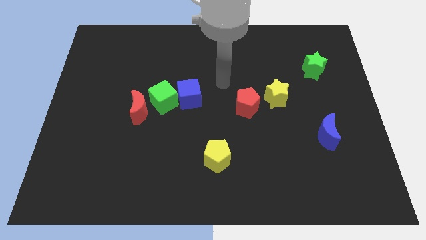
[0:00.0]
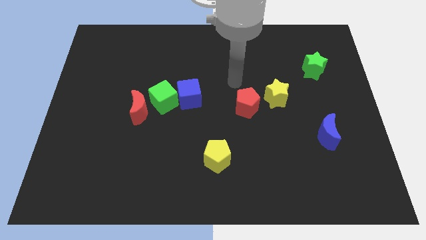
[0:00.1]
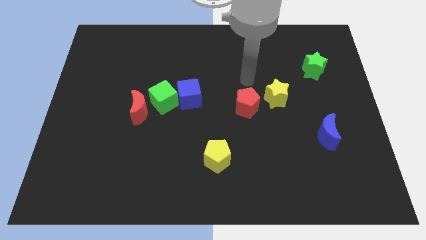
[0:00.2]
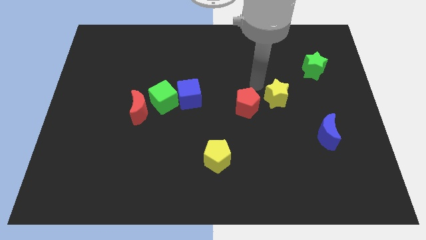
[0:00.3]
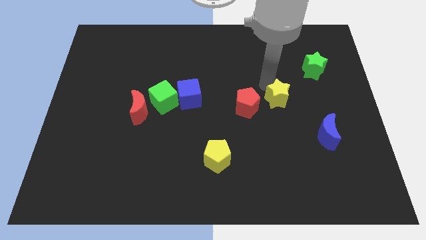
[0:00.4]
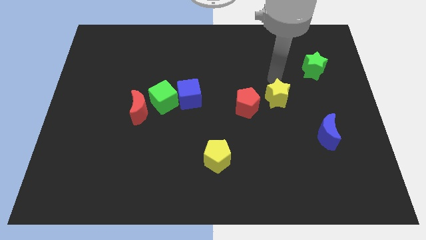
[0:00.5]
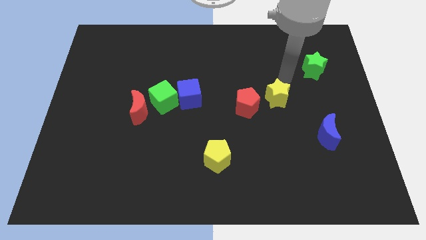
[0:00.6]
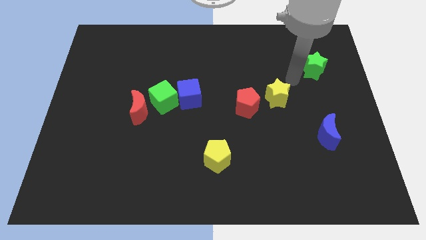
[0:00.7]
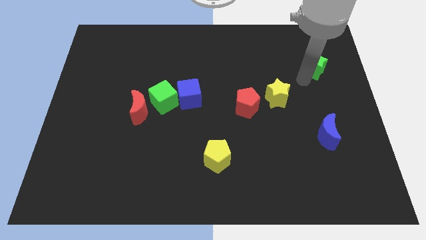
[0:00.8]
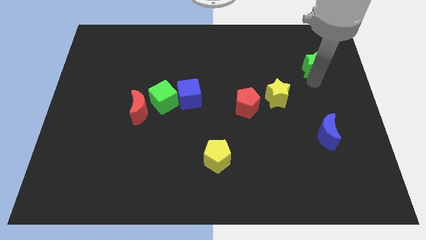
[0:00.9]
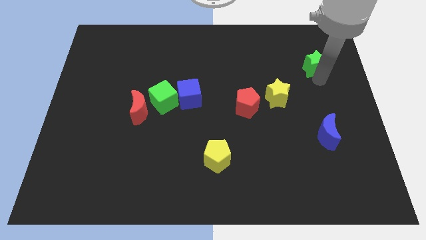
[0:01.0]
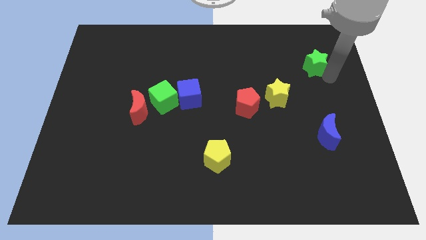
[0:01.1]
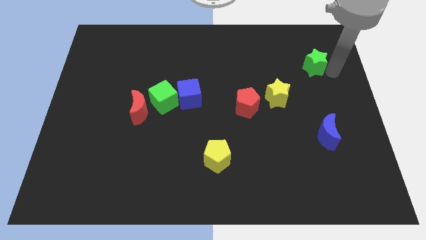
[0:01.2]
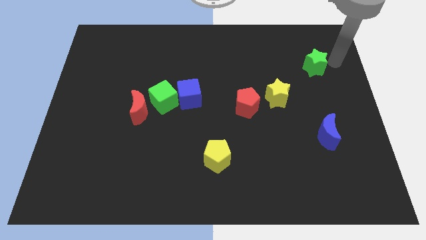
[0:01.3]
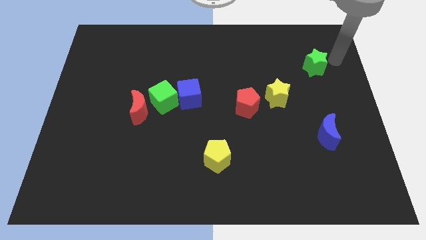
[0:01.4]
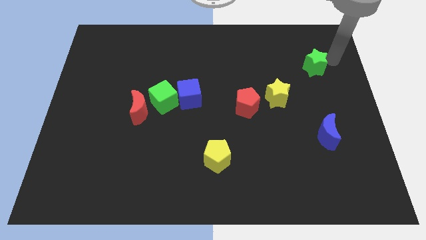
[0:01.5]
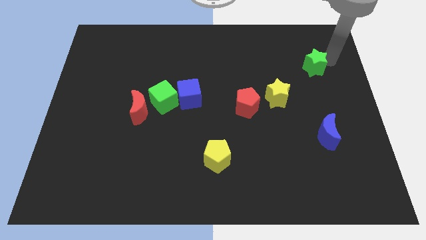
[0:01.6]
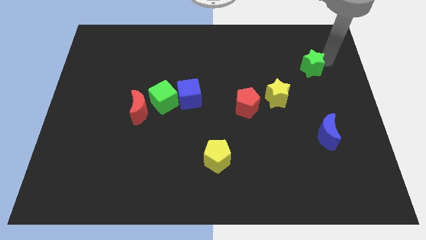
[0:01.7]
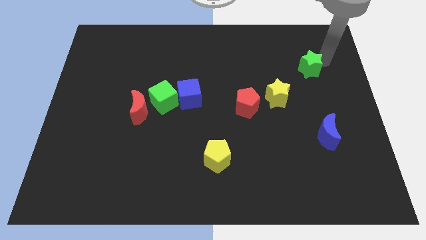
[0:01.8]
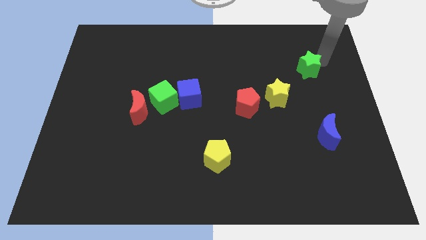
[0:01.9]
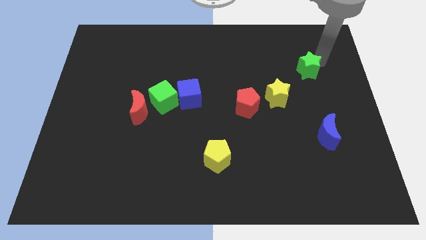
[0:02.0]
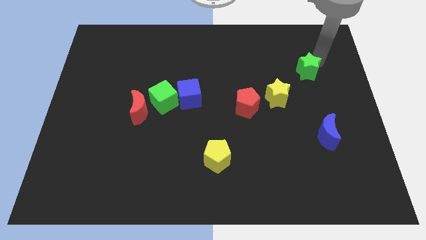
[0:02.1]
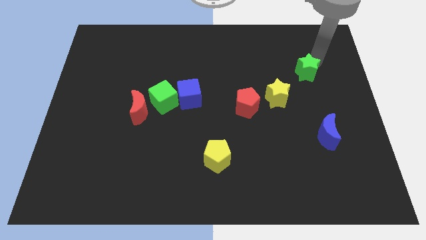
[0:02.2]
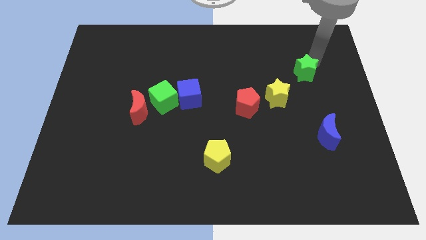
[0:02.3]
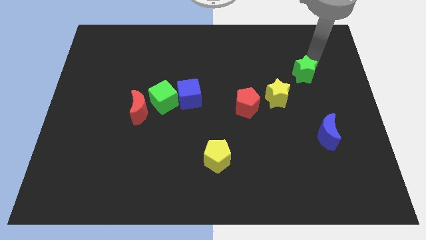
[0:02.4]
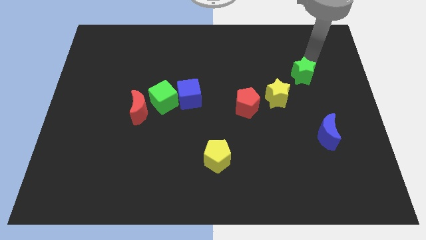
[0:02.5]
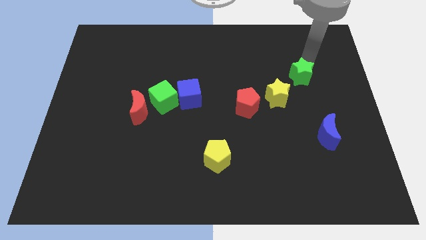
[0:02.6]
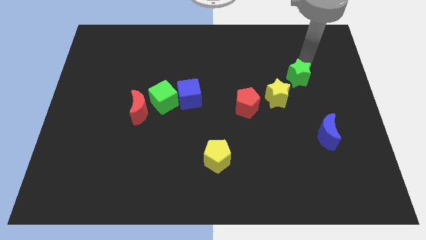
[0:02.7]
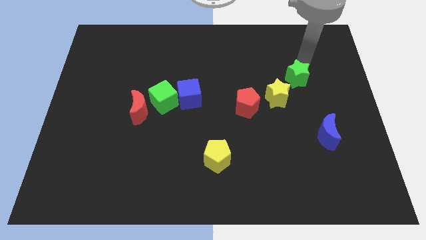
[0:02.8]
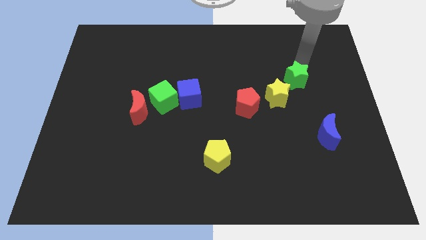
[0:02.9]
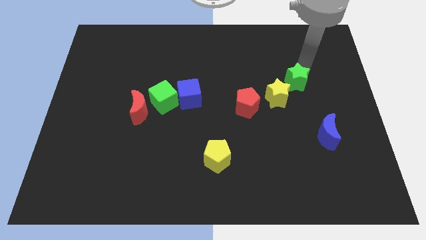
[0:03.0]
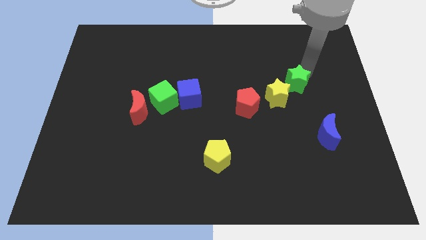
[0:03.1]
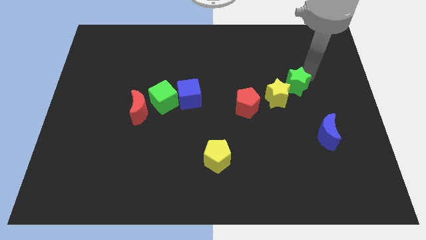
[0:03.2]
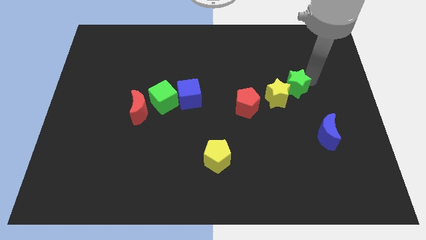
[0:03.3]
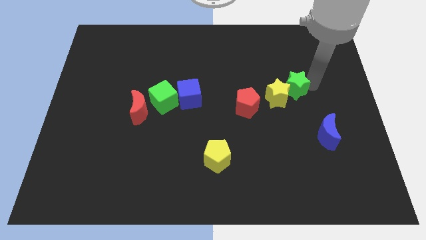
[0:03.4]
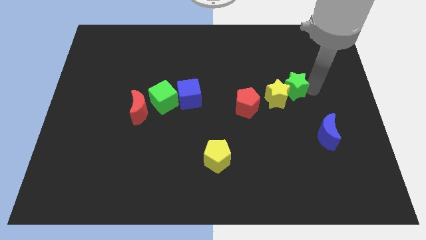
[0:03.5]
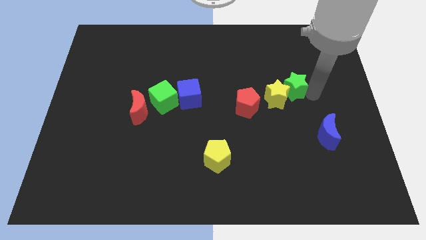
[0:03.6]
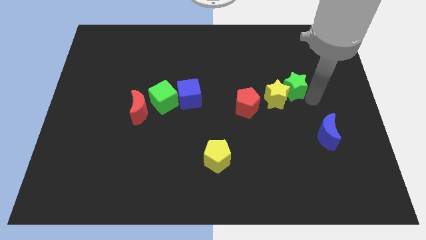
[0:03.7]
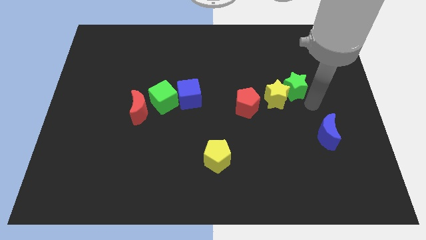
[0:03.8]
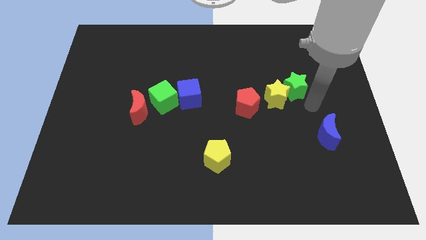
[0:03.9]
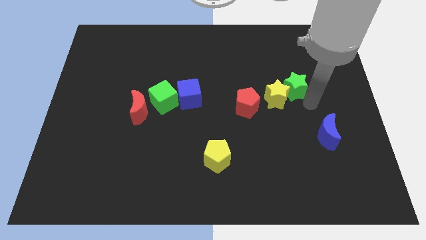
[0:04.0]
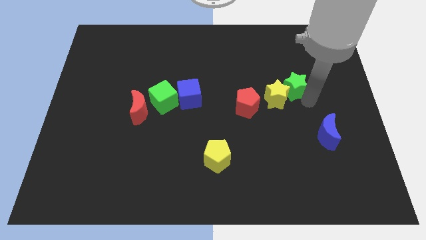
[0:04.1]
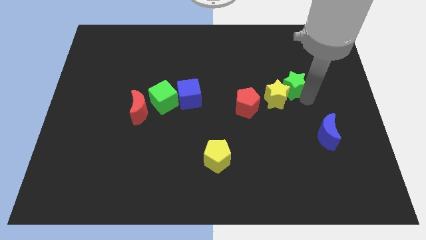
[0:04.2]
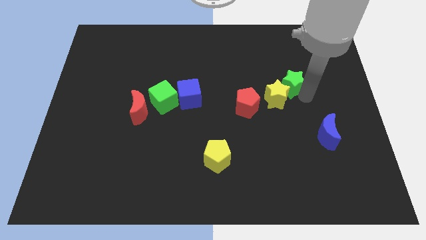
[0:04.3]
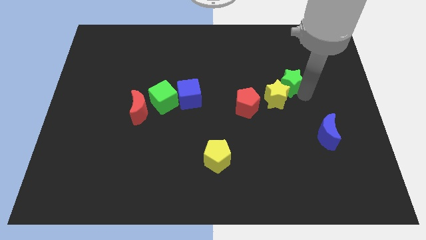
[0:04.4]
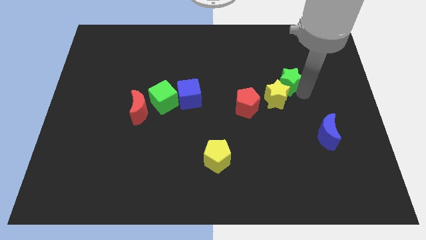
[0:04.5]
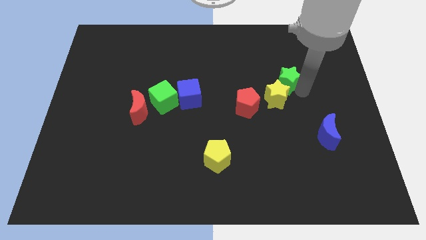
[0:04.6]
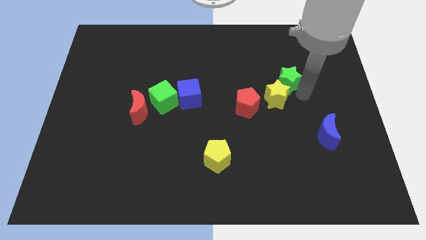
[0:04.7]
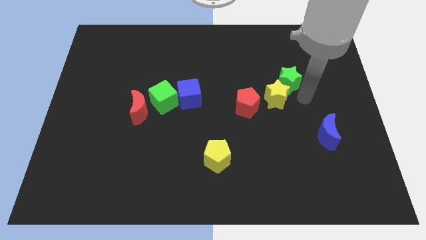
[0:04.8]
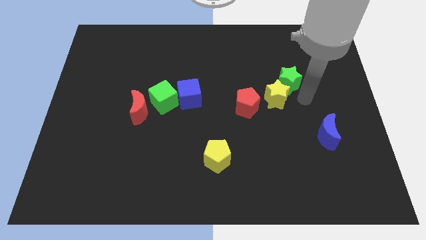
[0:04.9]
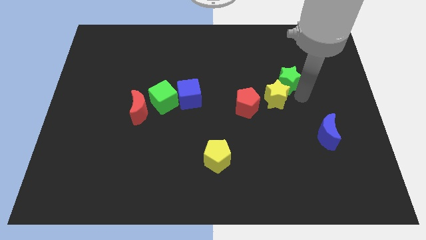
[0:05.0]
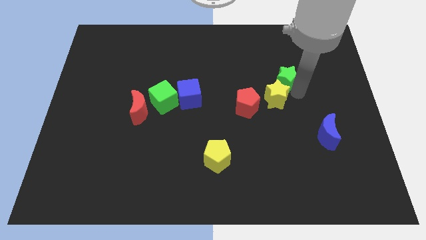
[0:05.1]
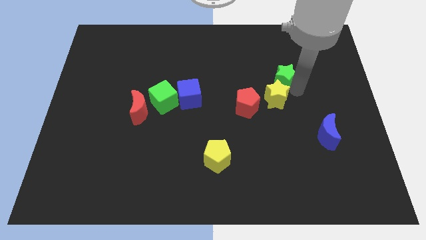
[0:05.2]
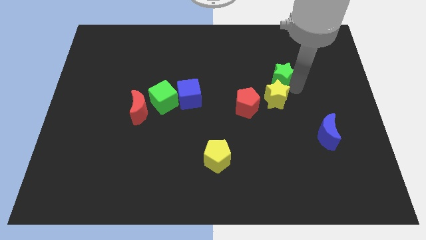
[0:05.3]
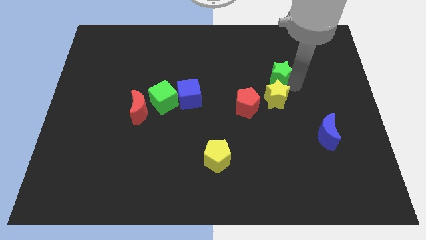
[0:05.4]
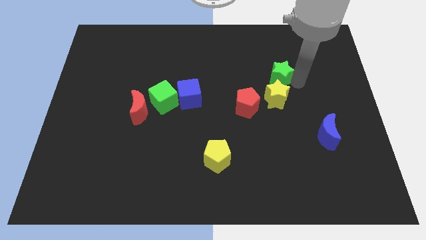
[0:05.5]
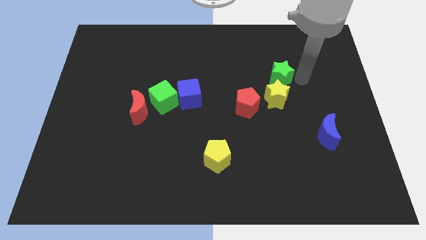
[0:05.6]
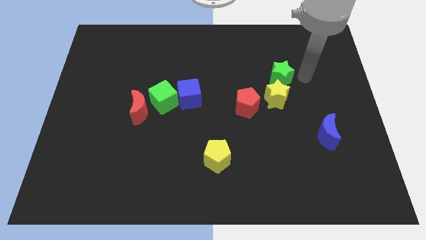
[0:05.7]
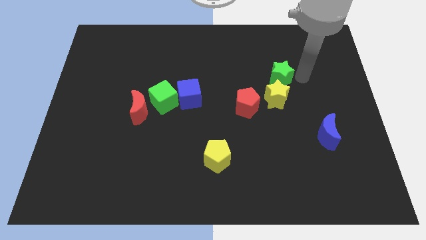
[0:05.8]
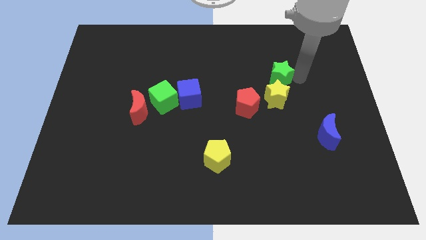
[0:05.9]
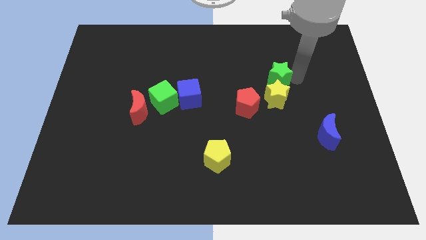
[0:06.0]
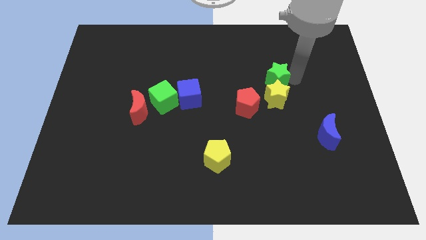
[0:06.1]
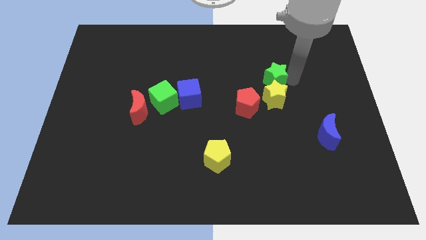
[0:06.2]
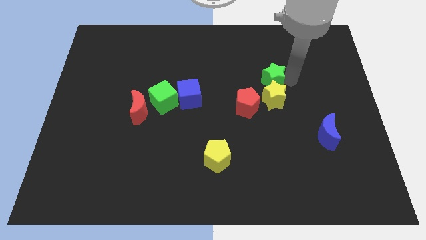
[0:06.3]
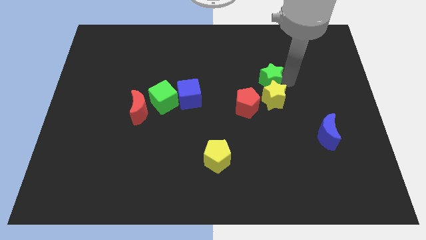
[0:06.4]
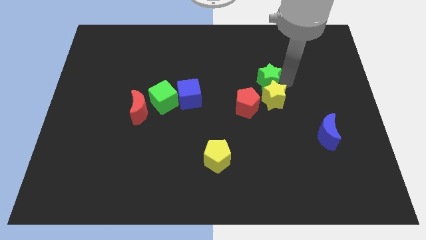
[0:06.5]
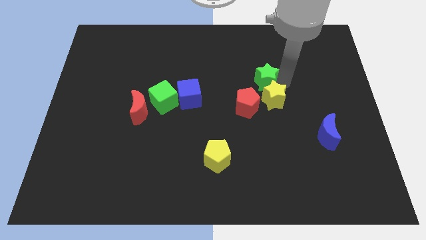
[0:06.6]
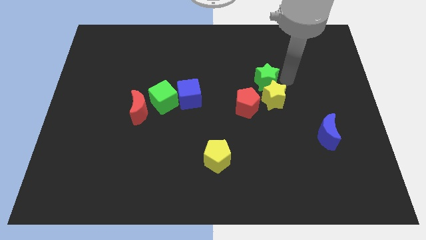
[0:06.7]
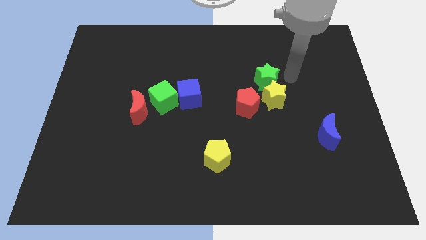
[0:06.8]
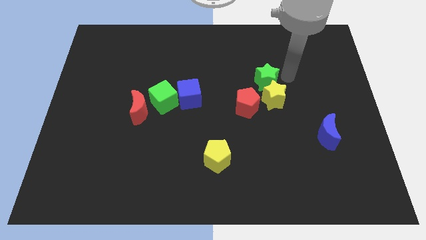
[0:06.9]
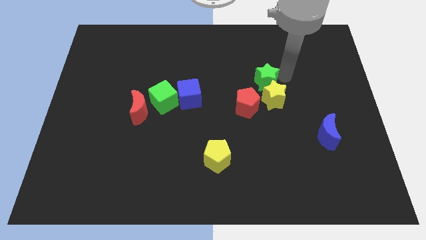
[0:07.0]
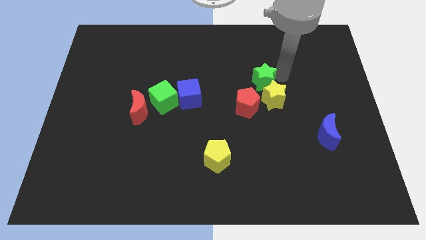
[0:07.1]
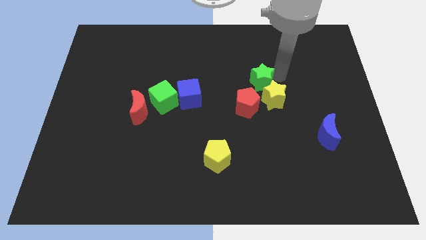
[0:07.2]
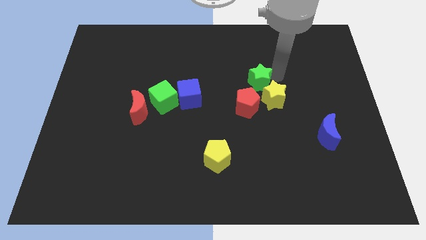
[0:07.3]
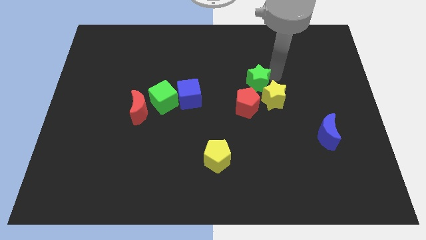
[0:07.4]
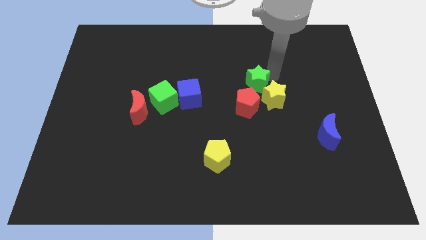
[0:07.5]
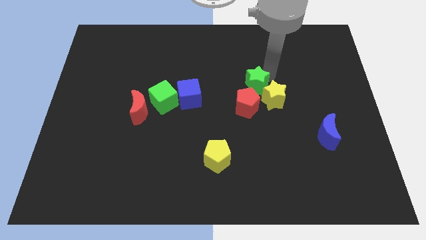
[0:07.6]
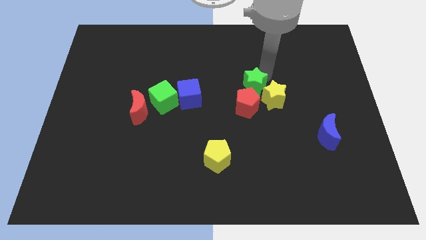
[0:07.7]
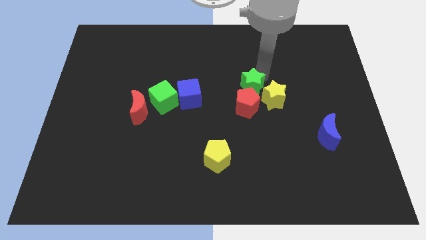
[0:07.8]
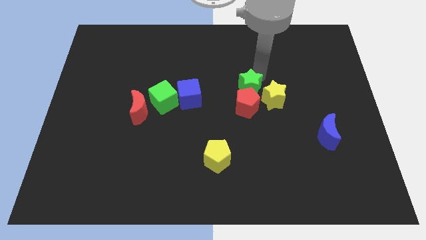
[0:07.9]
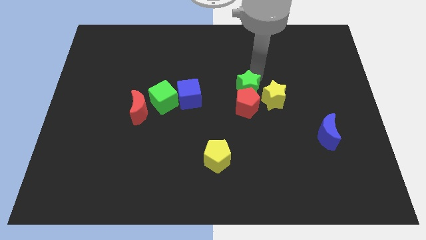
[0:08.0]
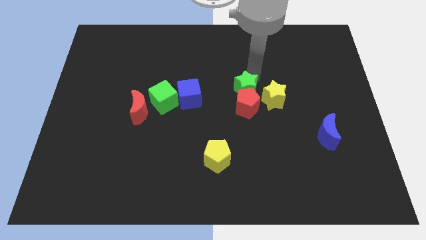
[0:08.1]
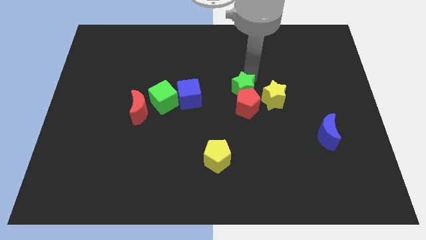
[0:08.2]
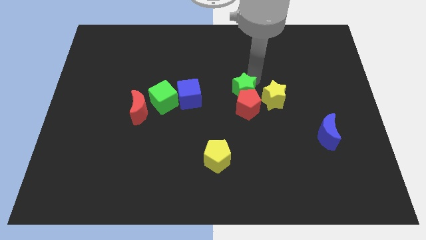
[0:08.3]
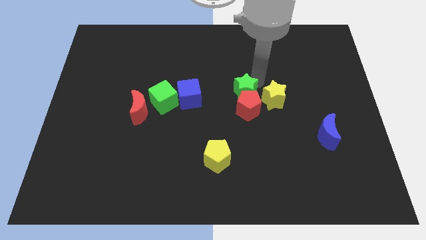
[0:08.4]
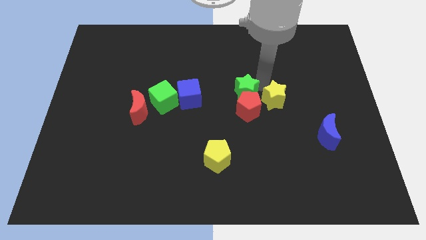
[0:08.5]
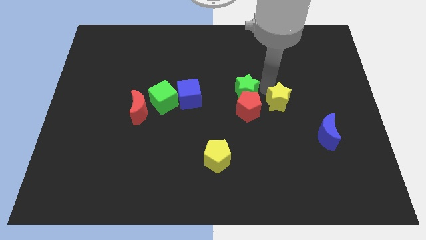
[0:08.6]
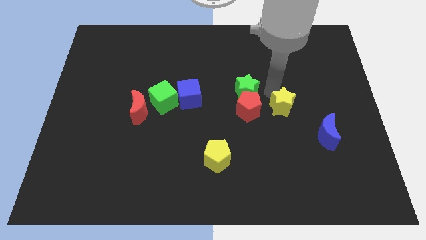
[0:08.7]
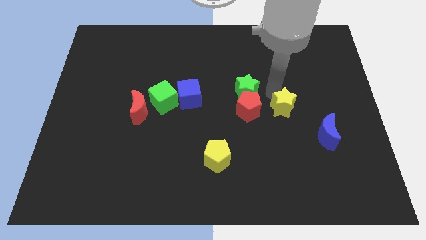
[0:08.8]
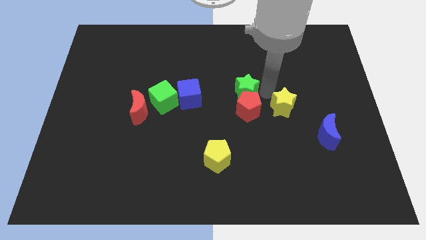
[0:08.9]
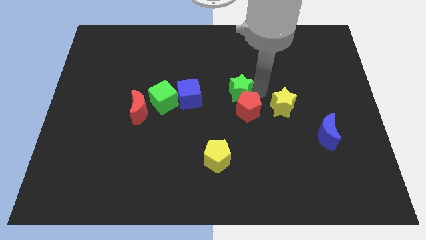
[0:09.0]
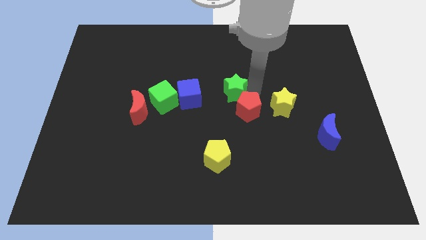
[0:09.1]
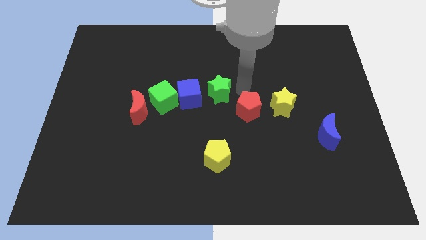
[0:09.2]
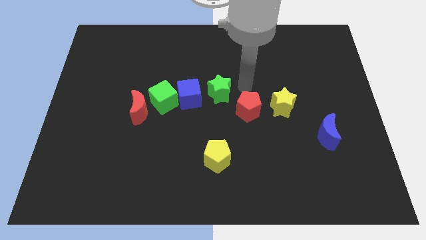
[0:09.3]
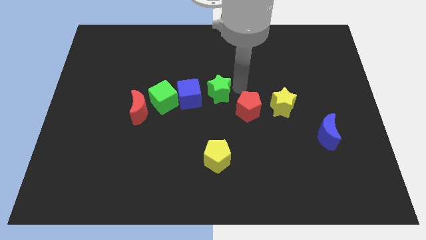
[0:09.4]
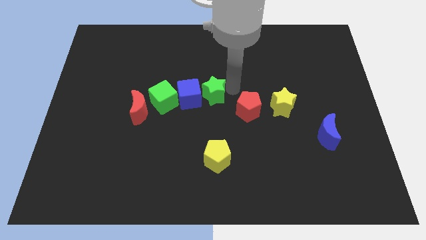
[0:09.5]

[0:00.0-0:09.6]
slide the green star to the blue cube
